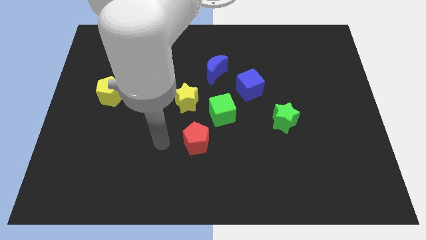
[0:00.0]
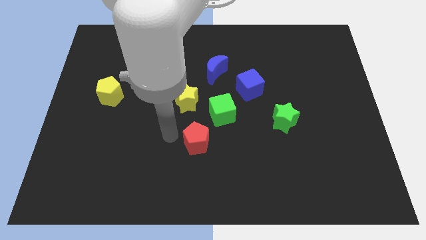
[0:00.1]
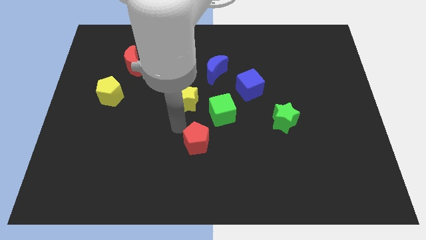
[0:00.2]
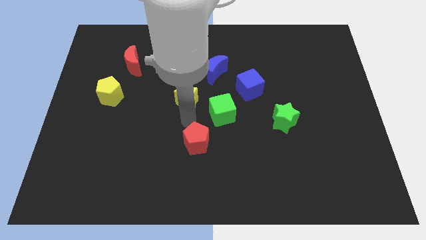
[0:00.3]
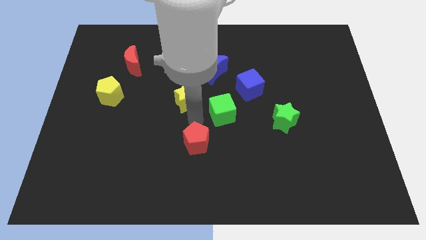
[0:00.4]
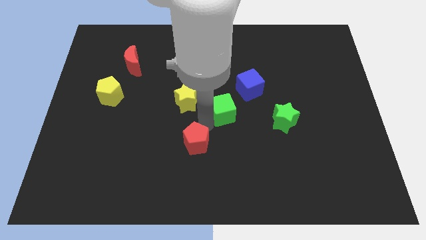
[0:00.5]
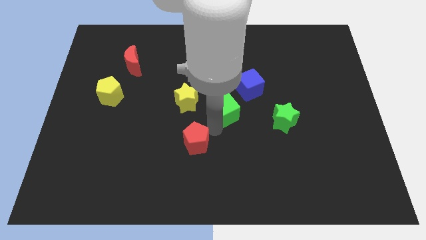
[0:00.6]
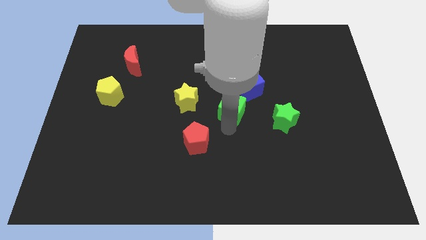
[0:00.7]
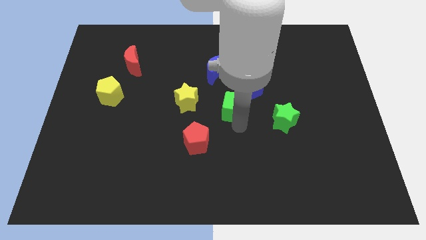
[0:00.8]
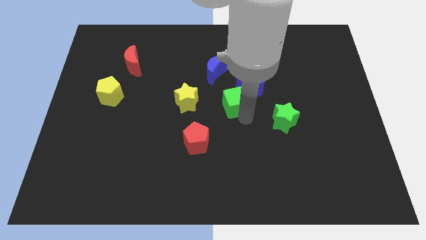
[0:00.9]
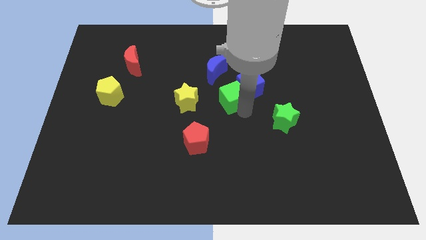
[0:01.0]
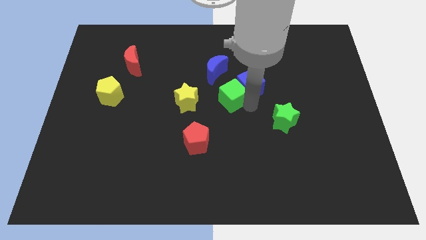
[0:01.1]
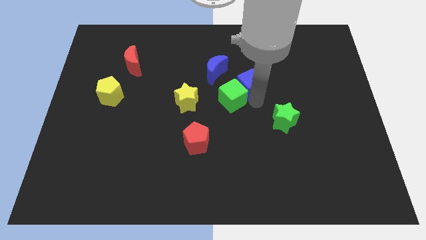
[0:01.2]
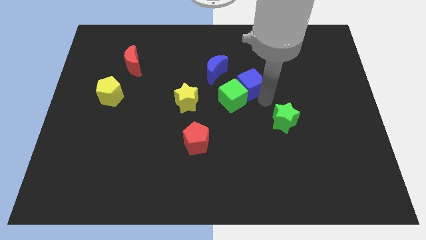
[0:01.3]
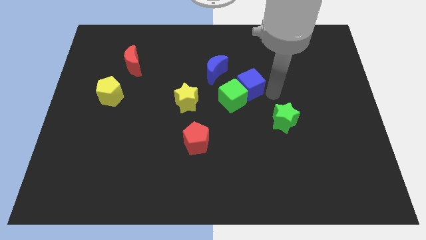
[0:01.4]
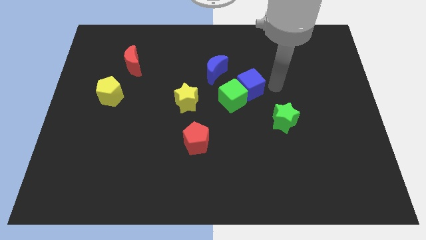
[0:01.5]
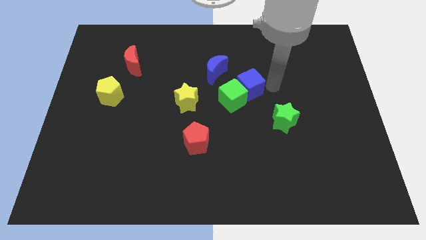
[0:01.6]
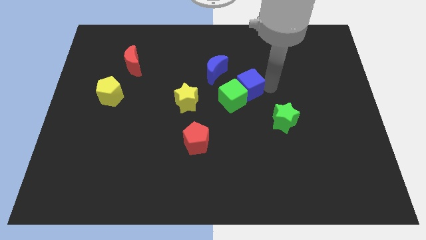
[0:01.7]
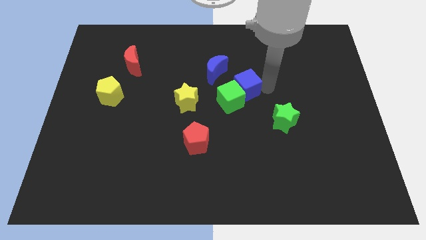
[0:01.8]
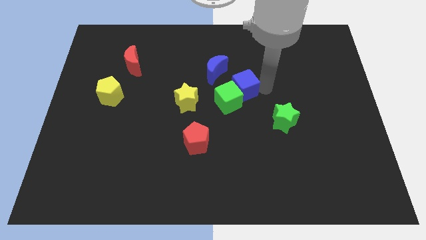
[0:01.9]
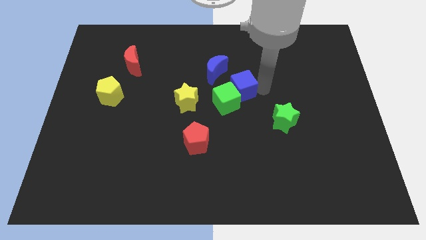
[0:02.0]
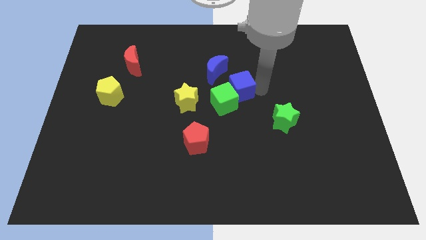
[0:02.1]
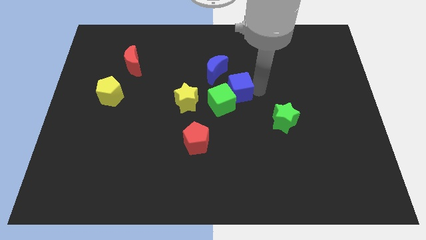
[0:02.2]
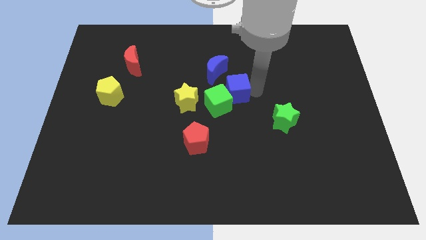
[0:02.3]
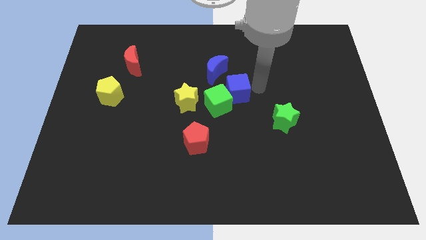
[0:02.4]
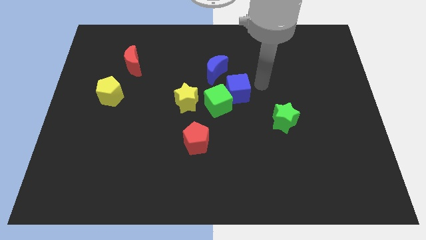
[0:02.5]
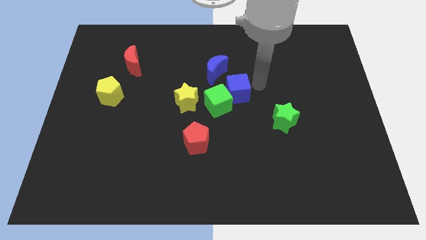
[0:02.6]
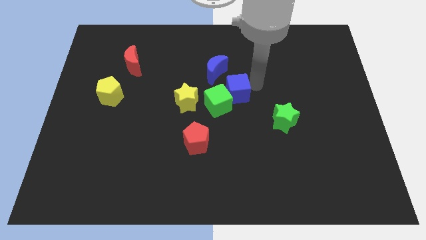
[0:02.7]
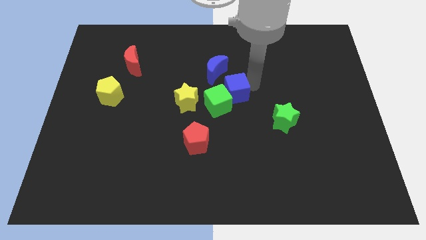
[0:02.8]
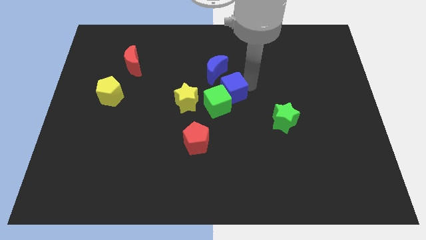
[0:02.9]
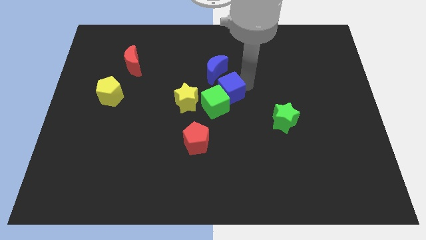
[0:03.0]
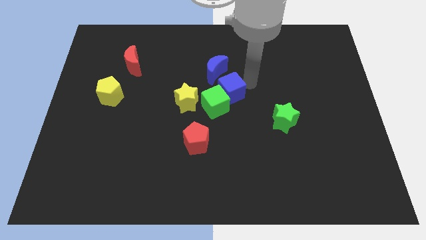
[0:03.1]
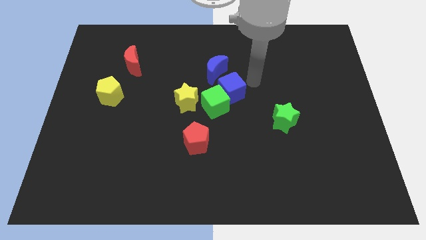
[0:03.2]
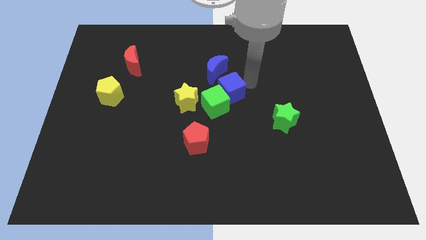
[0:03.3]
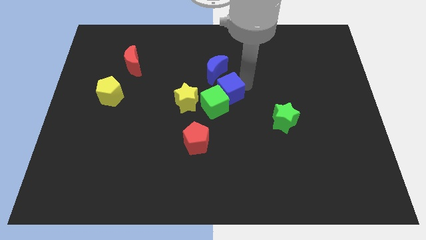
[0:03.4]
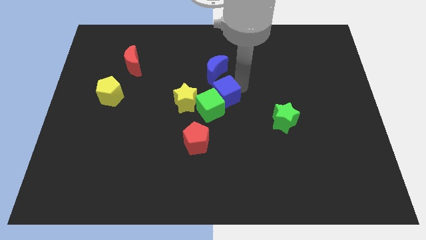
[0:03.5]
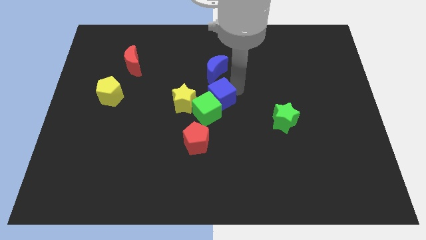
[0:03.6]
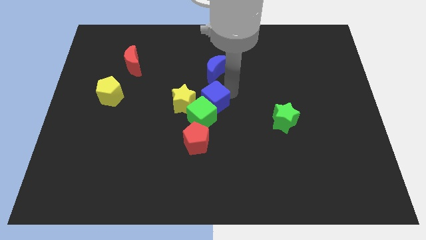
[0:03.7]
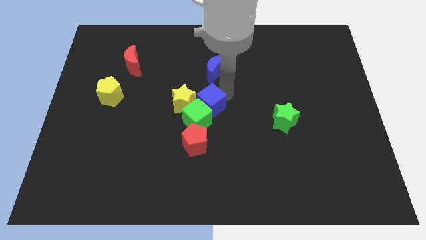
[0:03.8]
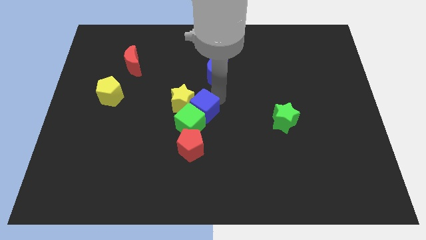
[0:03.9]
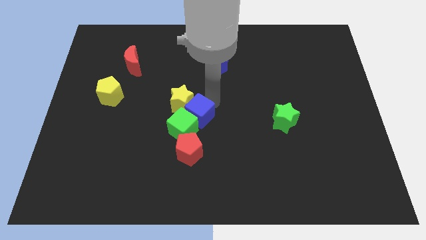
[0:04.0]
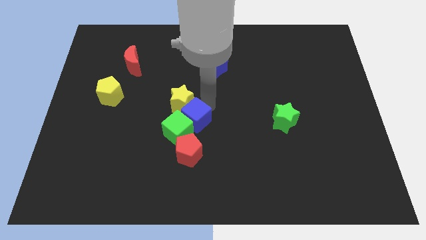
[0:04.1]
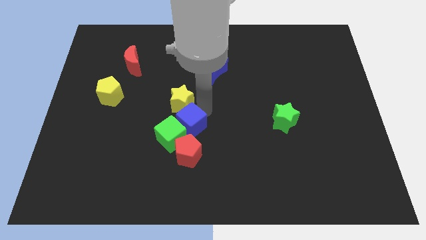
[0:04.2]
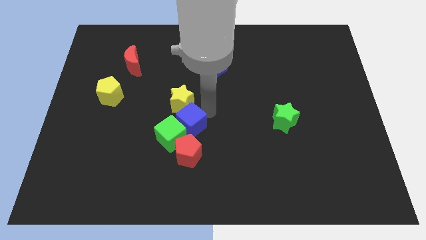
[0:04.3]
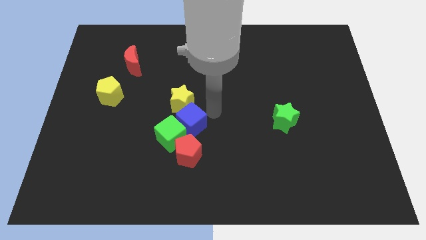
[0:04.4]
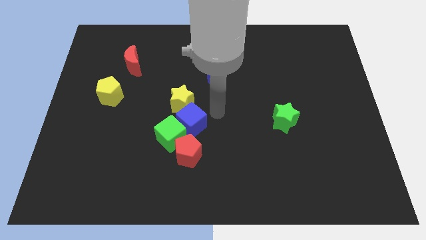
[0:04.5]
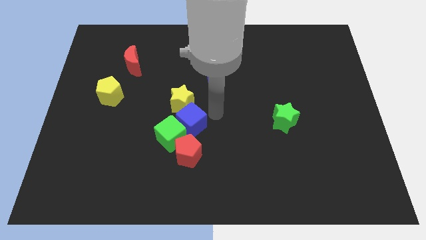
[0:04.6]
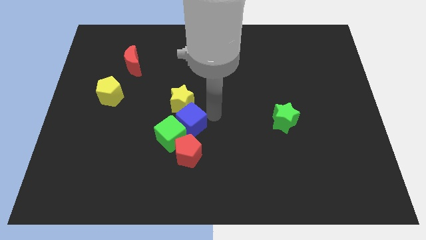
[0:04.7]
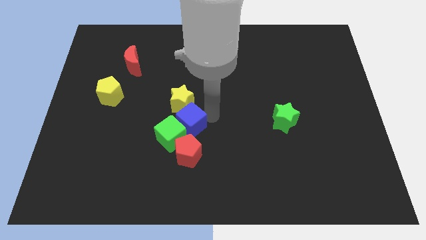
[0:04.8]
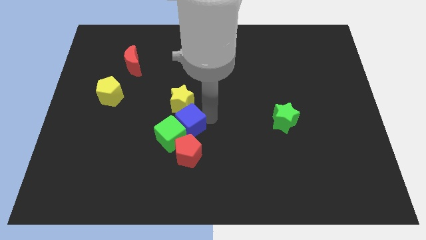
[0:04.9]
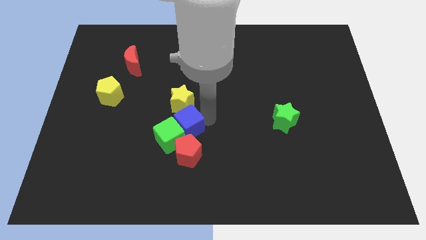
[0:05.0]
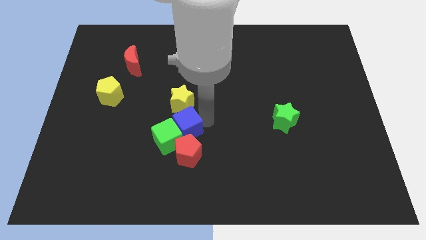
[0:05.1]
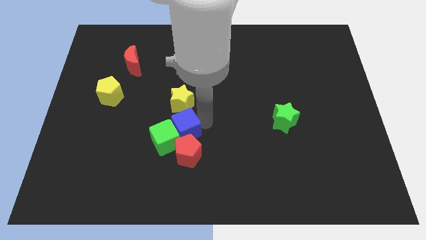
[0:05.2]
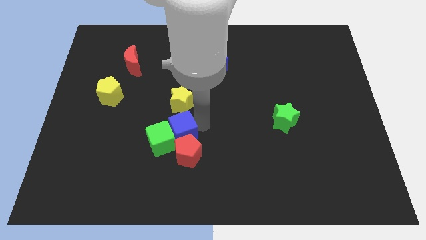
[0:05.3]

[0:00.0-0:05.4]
push the blue cube down and then left

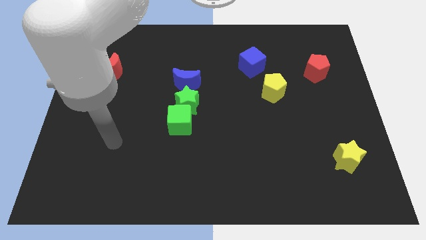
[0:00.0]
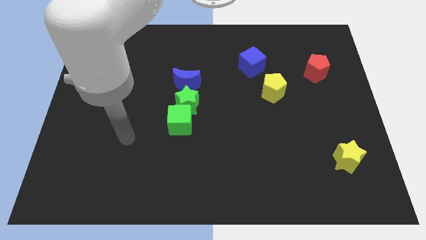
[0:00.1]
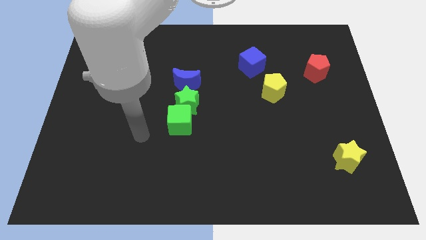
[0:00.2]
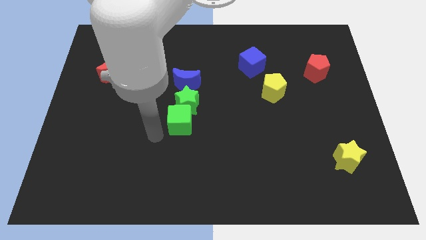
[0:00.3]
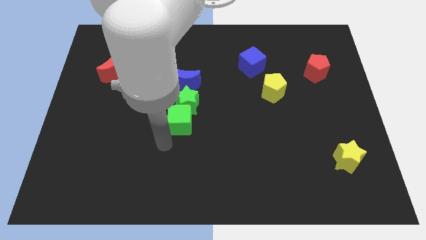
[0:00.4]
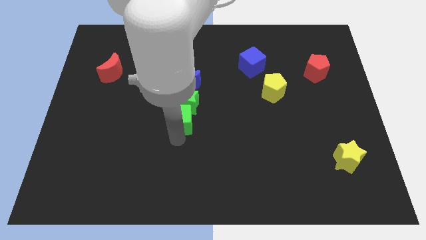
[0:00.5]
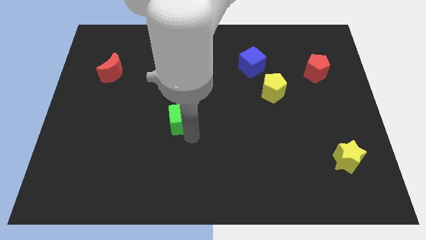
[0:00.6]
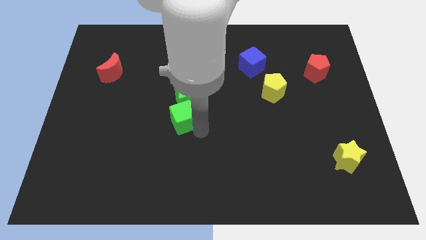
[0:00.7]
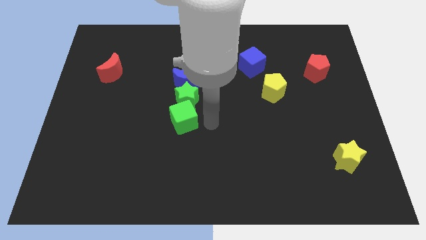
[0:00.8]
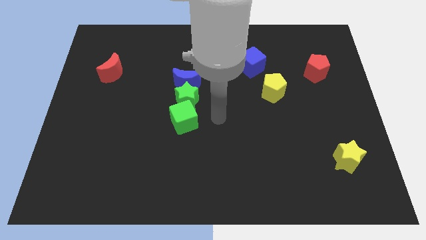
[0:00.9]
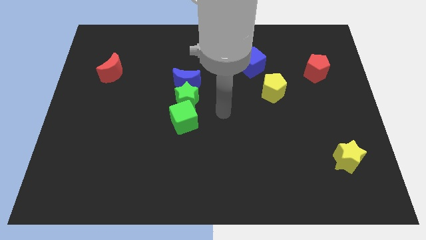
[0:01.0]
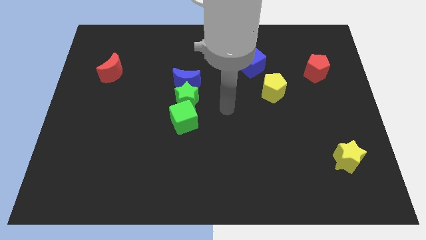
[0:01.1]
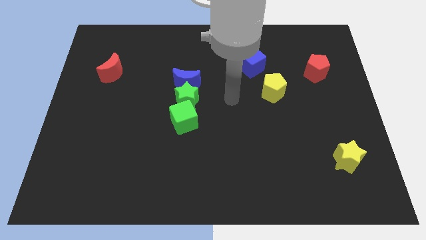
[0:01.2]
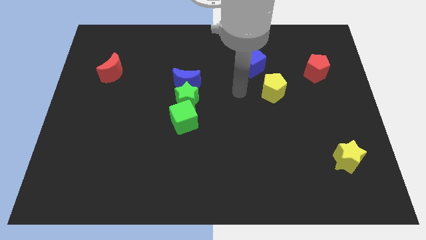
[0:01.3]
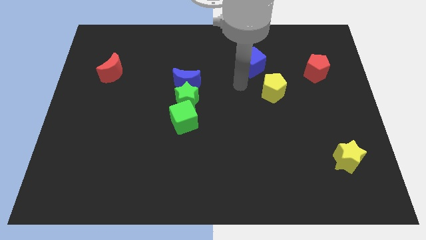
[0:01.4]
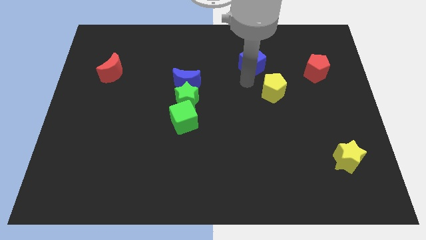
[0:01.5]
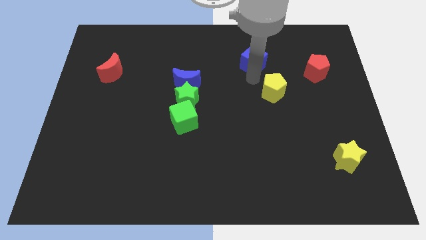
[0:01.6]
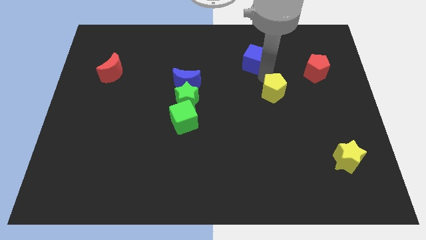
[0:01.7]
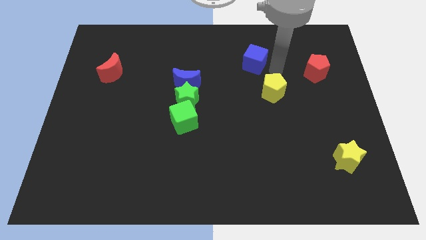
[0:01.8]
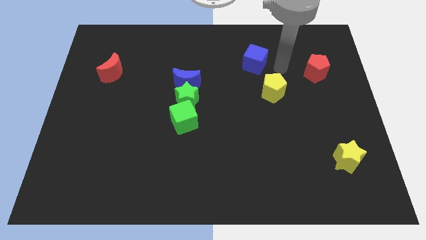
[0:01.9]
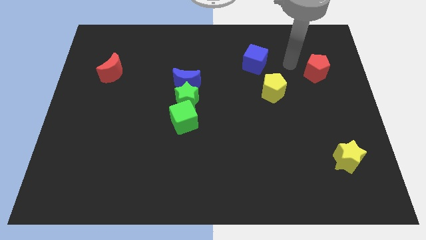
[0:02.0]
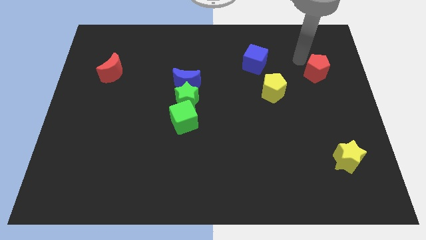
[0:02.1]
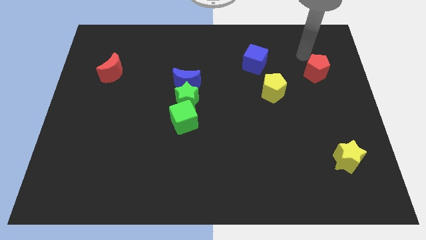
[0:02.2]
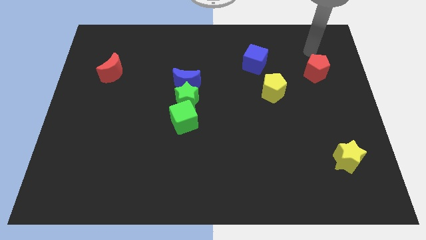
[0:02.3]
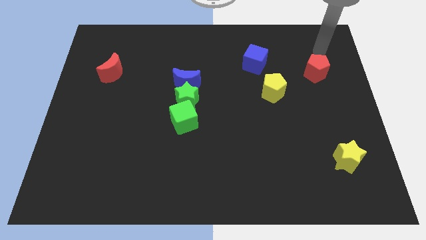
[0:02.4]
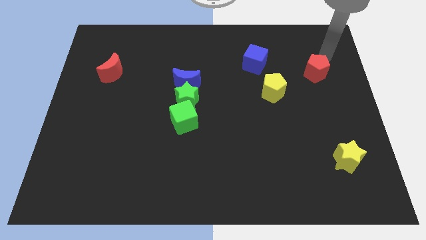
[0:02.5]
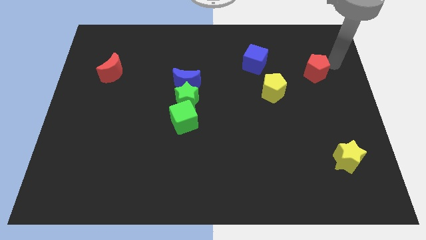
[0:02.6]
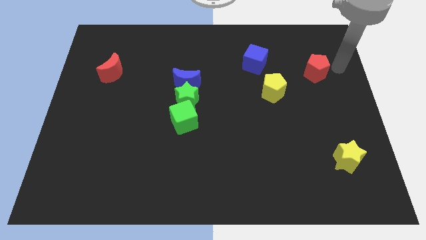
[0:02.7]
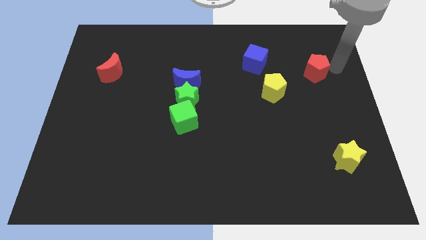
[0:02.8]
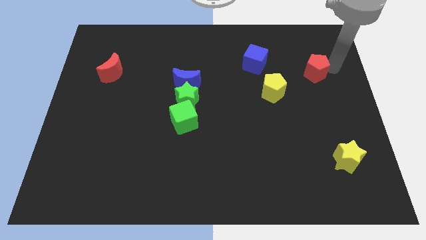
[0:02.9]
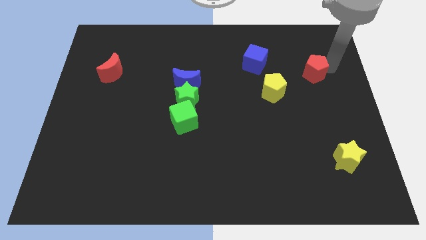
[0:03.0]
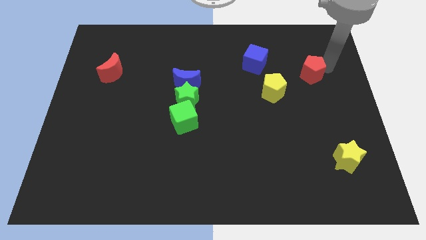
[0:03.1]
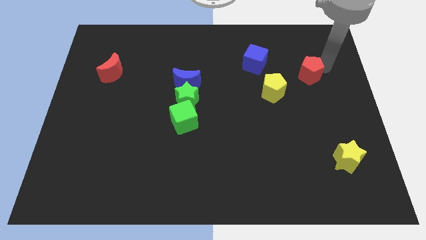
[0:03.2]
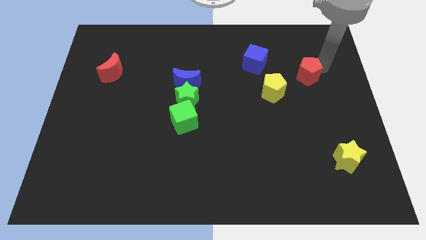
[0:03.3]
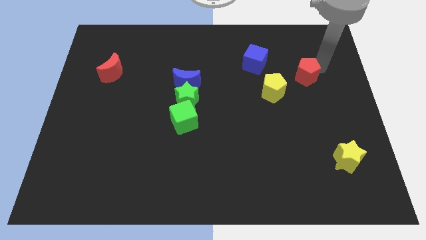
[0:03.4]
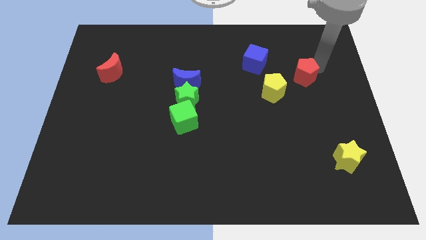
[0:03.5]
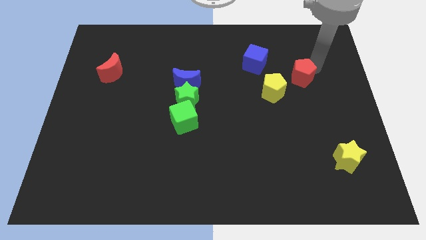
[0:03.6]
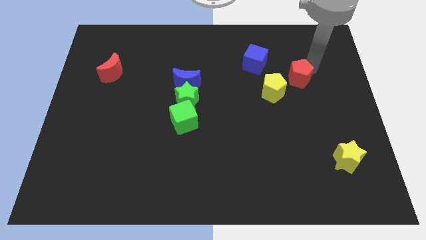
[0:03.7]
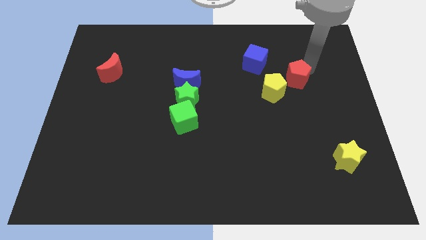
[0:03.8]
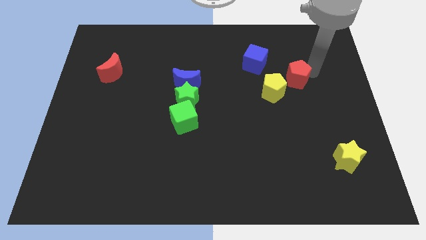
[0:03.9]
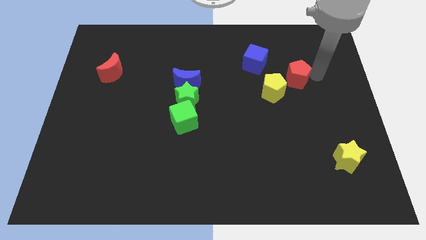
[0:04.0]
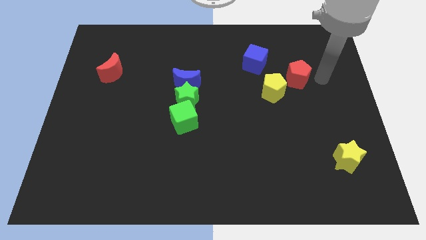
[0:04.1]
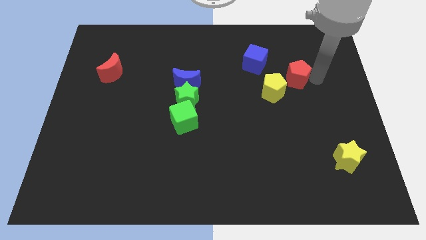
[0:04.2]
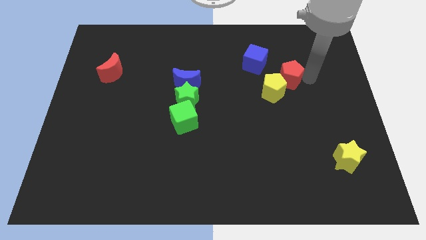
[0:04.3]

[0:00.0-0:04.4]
push the red pentagon to the left somewhat
